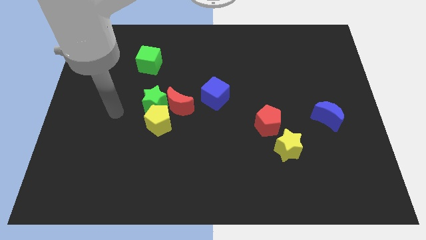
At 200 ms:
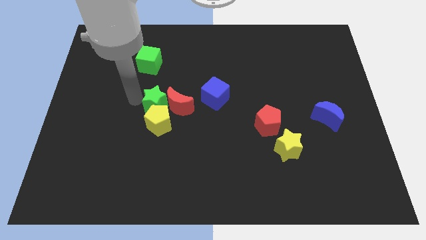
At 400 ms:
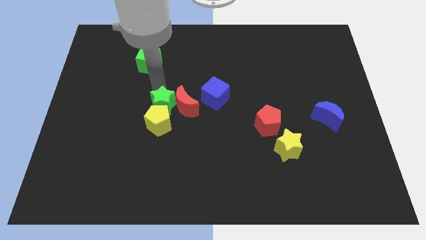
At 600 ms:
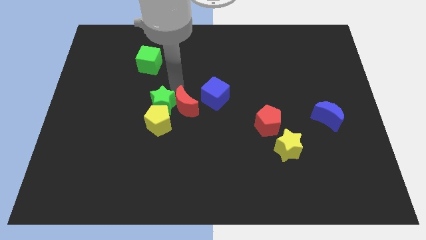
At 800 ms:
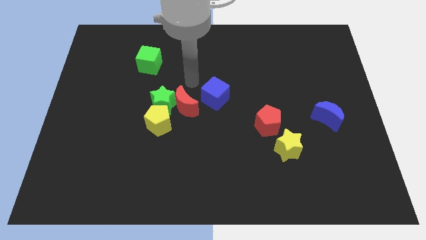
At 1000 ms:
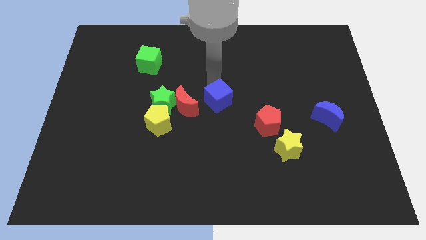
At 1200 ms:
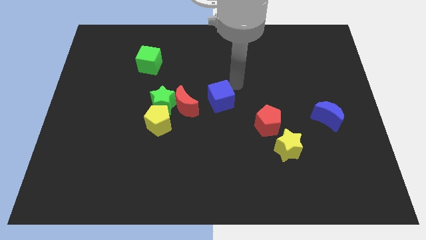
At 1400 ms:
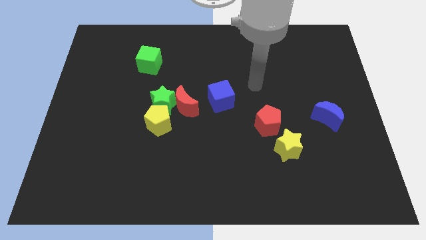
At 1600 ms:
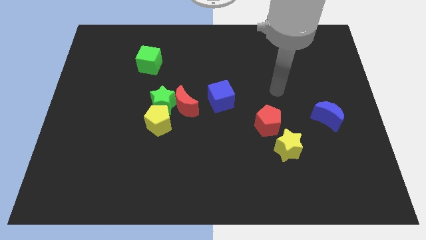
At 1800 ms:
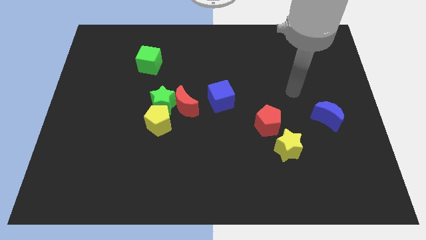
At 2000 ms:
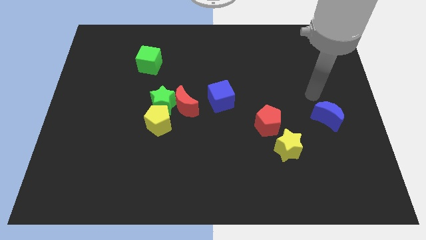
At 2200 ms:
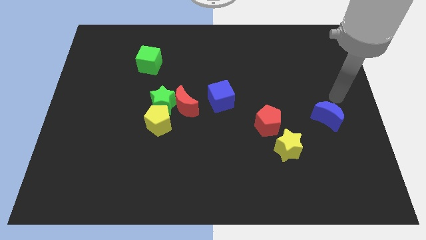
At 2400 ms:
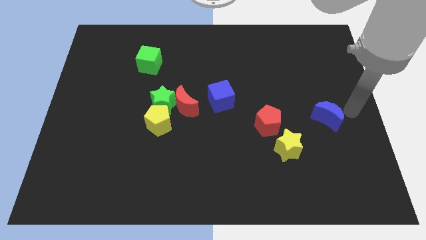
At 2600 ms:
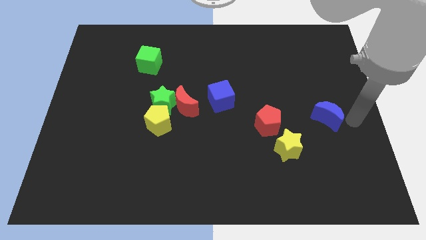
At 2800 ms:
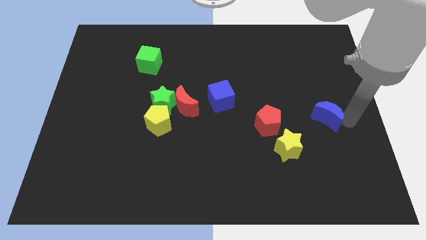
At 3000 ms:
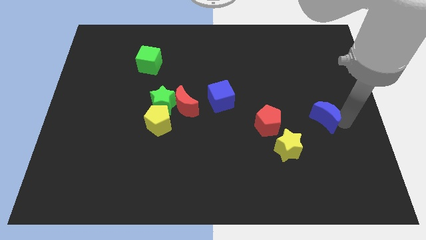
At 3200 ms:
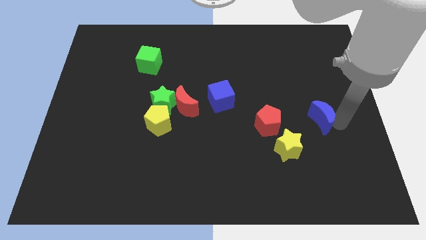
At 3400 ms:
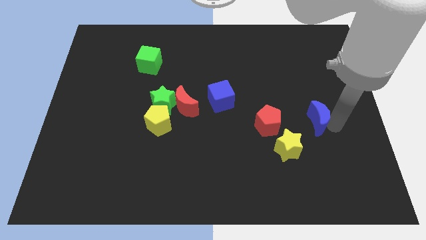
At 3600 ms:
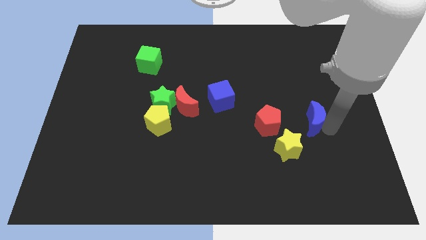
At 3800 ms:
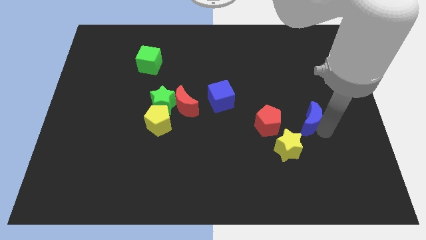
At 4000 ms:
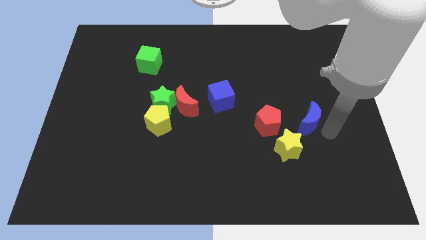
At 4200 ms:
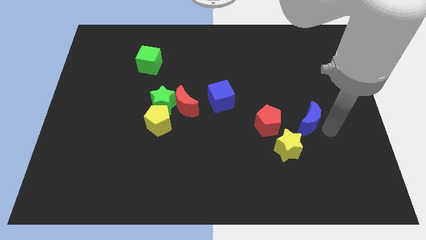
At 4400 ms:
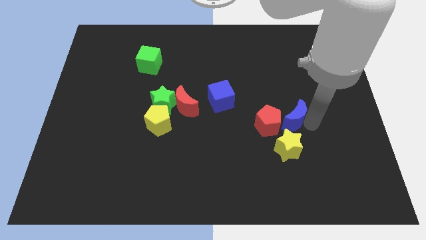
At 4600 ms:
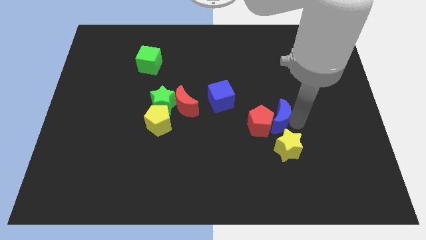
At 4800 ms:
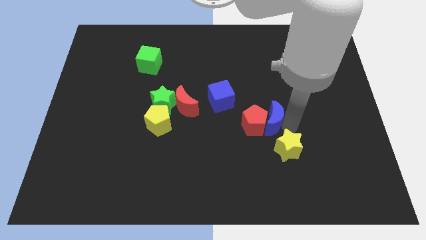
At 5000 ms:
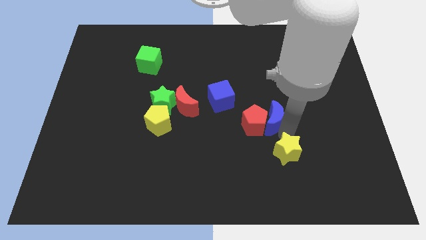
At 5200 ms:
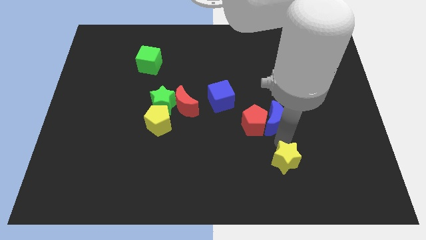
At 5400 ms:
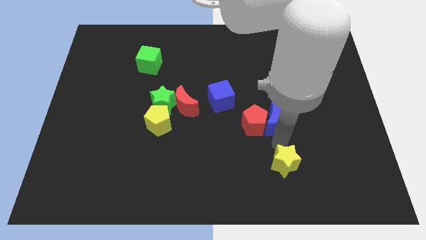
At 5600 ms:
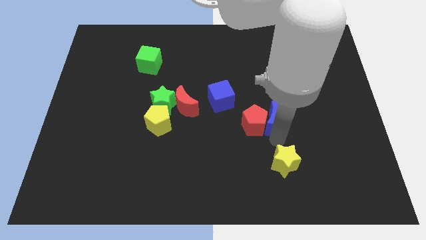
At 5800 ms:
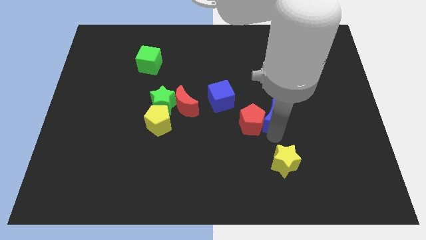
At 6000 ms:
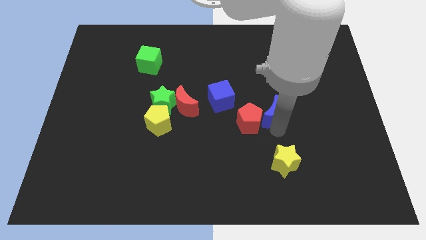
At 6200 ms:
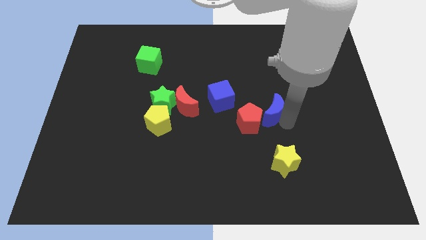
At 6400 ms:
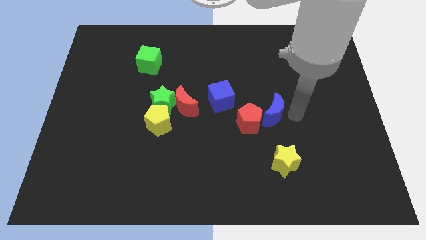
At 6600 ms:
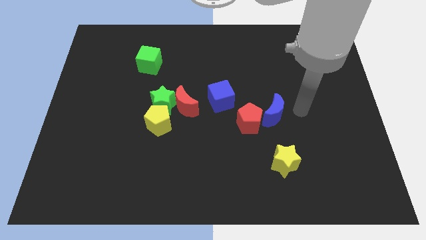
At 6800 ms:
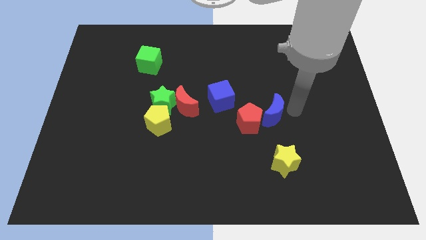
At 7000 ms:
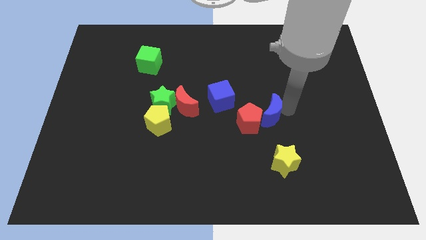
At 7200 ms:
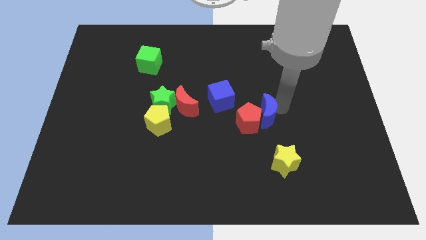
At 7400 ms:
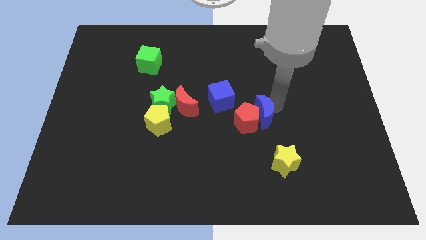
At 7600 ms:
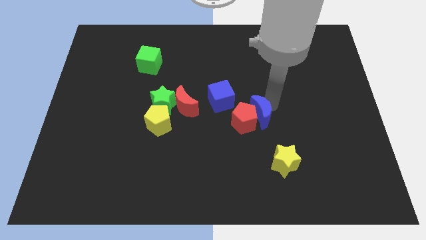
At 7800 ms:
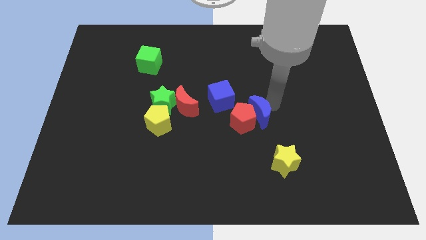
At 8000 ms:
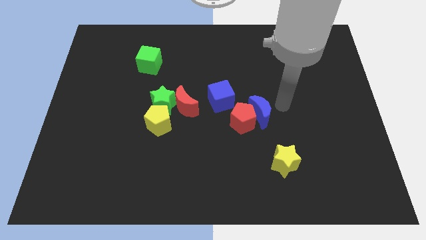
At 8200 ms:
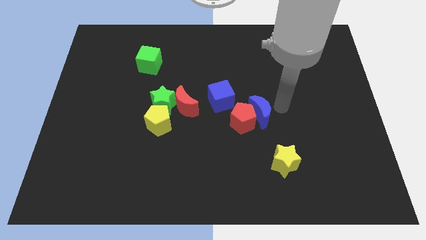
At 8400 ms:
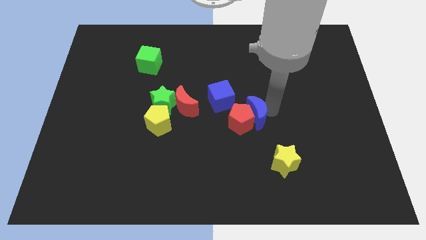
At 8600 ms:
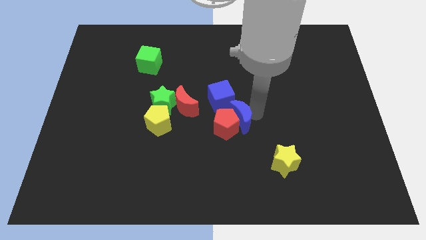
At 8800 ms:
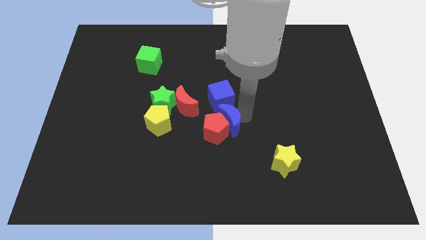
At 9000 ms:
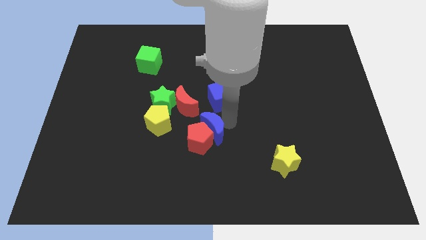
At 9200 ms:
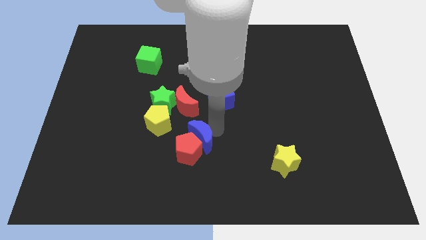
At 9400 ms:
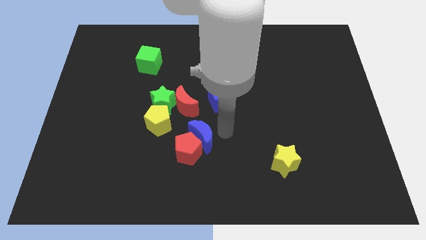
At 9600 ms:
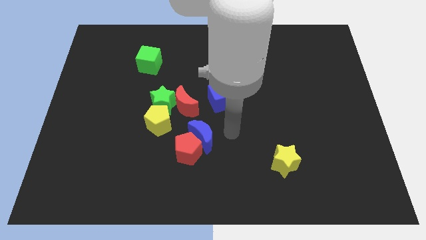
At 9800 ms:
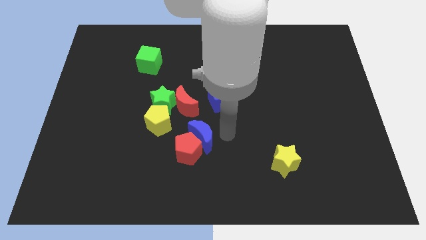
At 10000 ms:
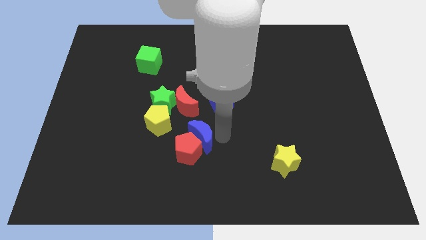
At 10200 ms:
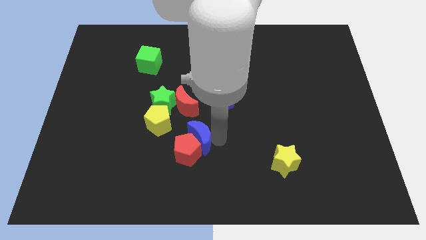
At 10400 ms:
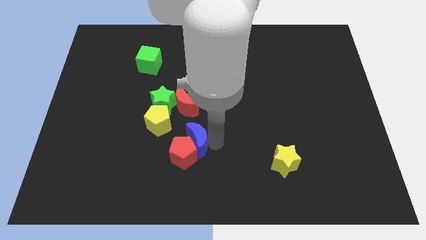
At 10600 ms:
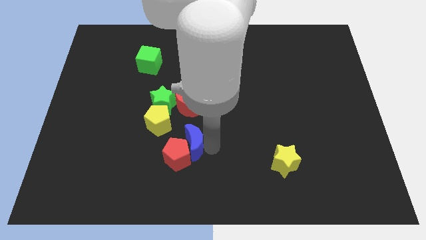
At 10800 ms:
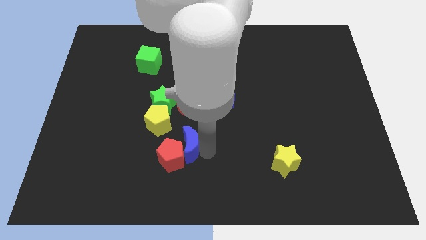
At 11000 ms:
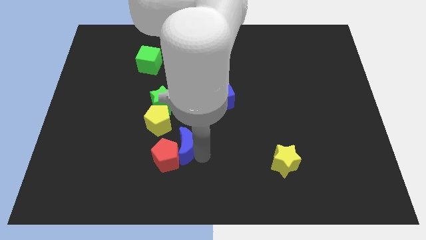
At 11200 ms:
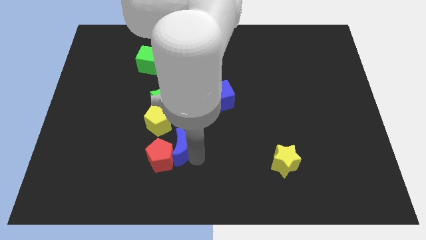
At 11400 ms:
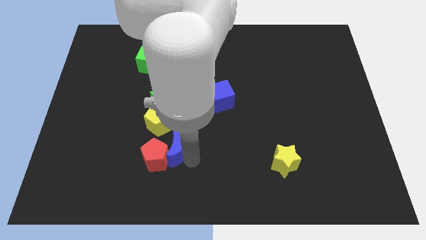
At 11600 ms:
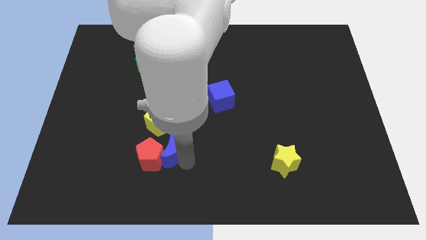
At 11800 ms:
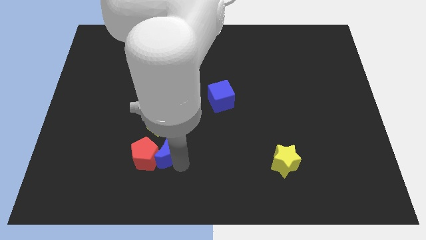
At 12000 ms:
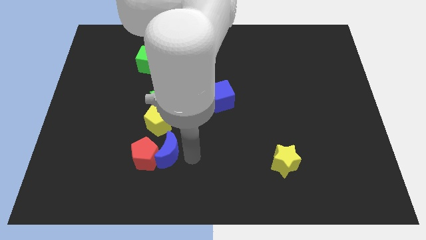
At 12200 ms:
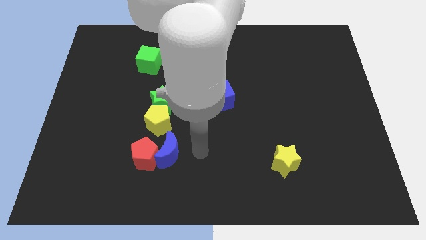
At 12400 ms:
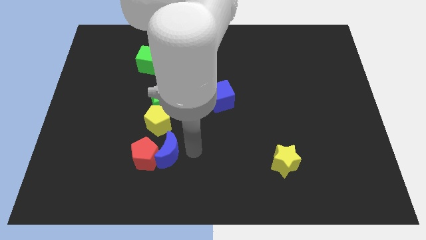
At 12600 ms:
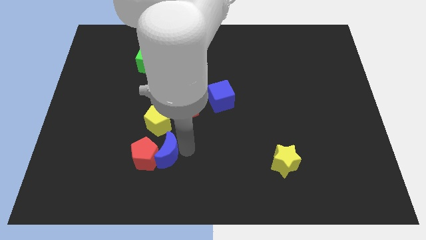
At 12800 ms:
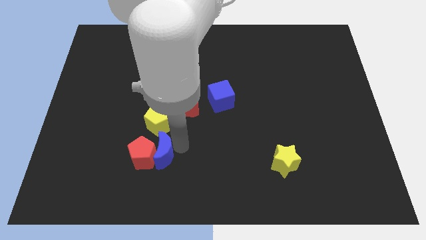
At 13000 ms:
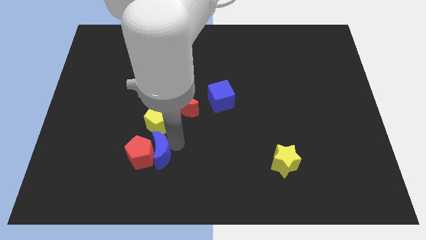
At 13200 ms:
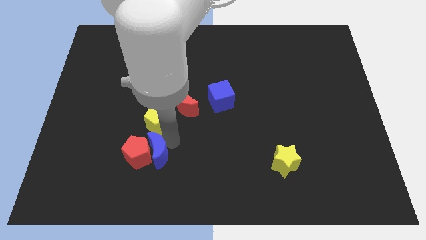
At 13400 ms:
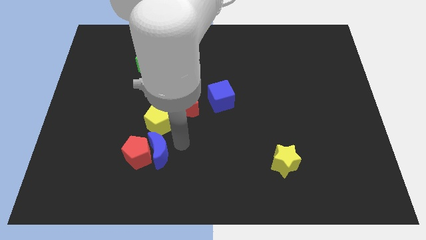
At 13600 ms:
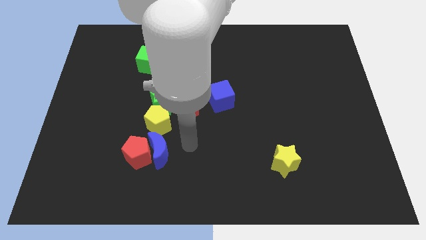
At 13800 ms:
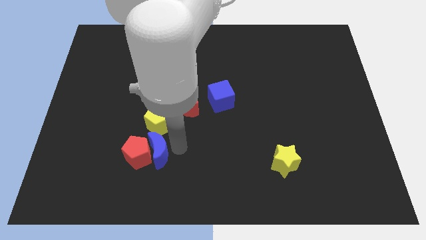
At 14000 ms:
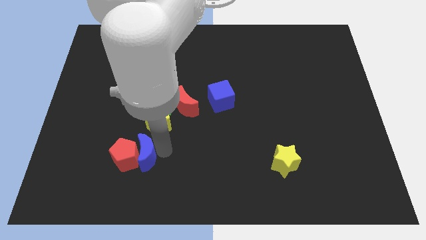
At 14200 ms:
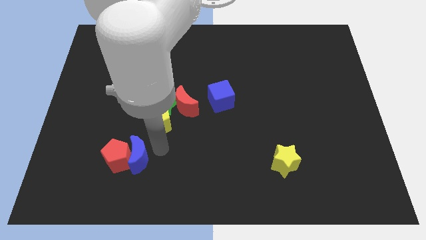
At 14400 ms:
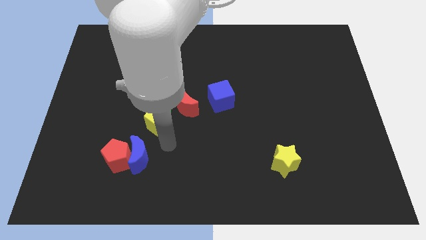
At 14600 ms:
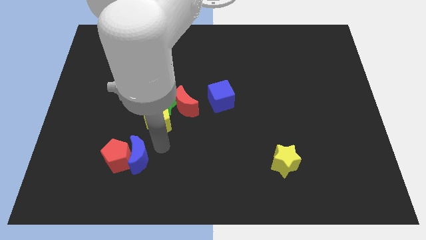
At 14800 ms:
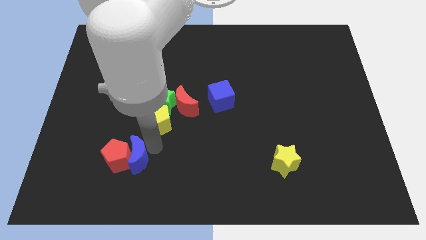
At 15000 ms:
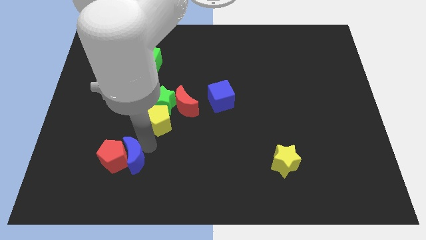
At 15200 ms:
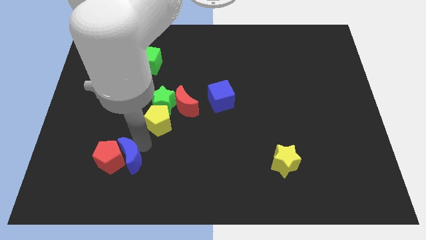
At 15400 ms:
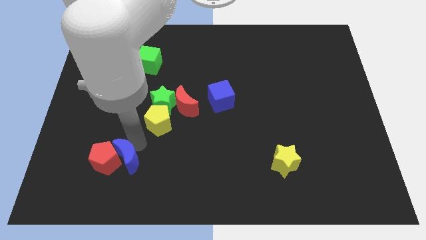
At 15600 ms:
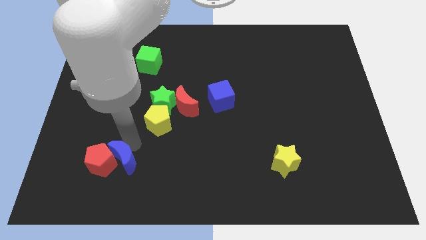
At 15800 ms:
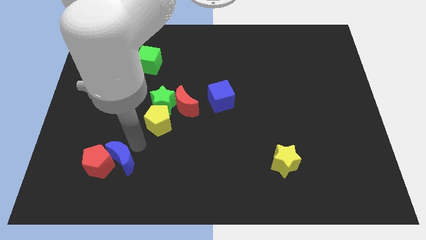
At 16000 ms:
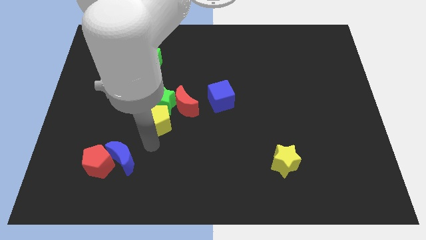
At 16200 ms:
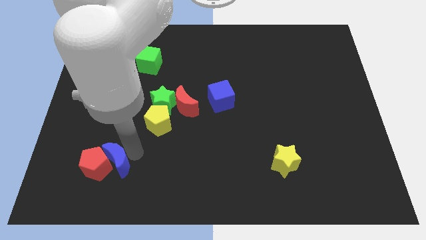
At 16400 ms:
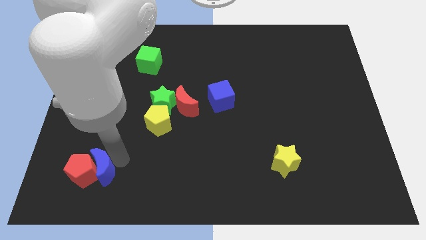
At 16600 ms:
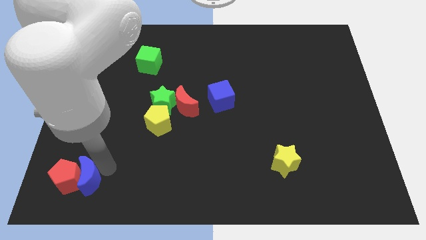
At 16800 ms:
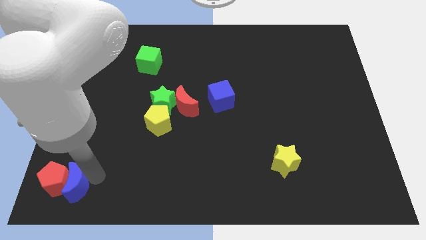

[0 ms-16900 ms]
push the blue moon to the lower left corner
